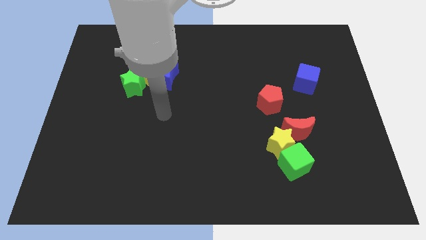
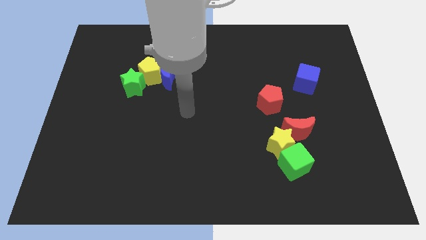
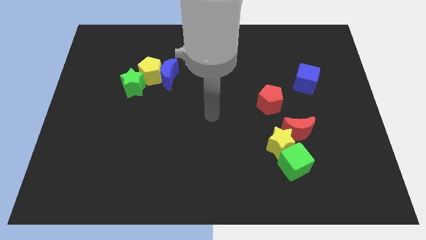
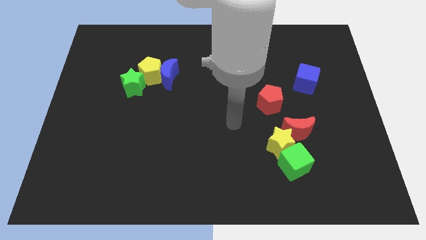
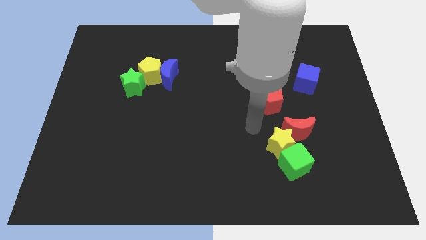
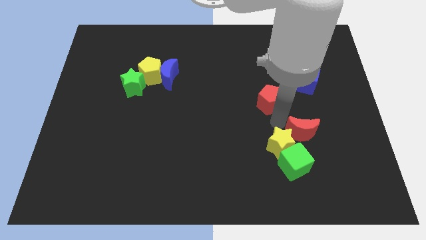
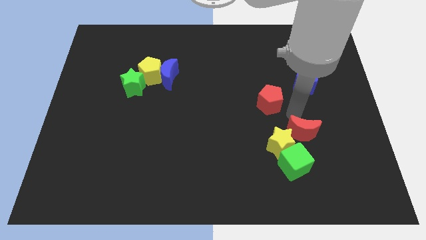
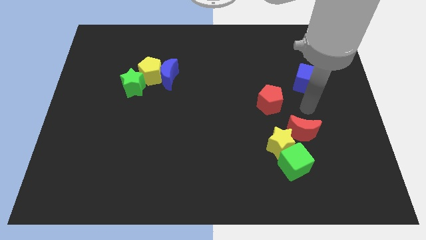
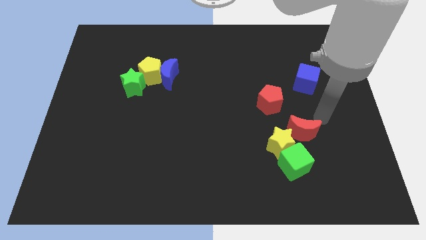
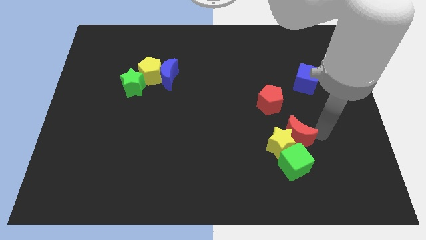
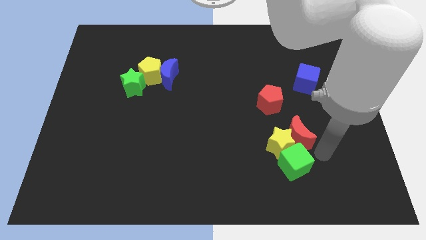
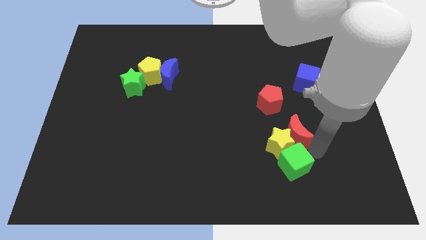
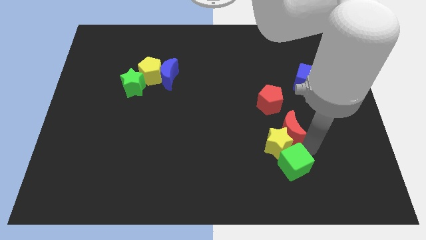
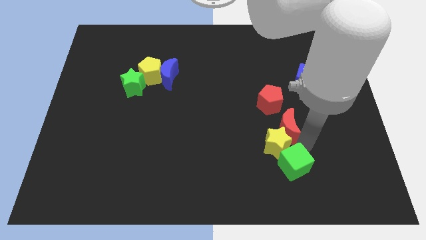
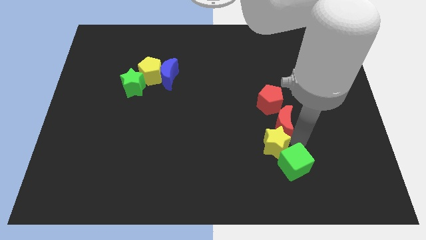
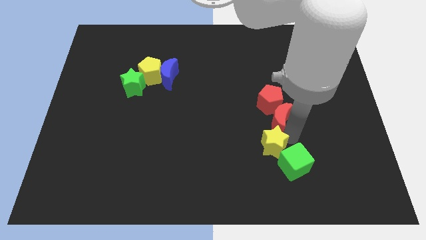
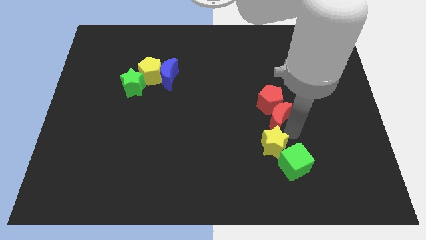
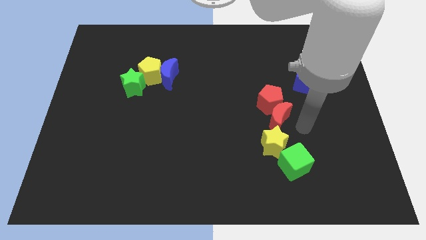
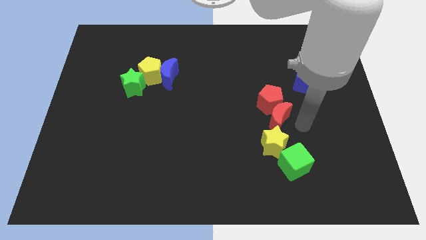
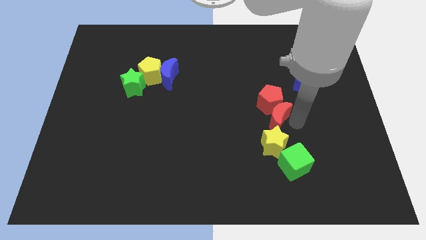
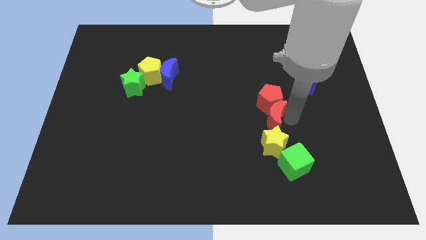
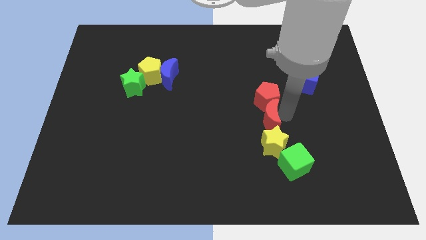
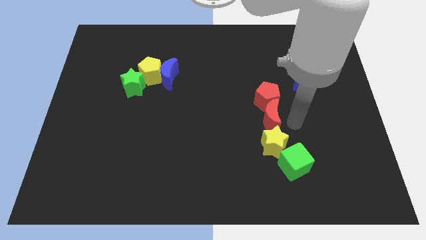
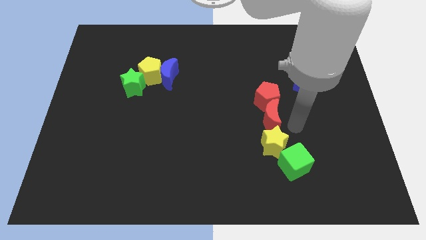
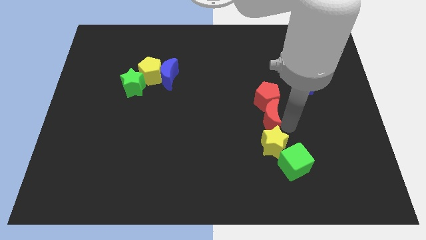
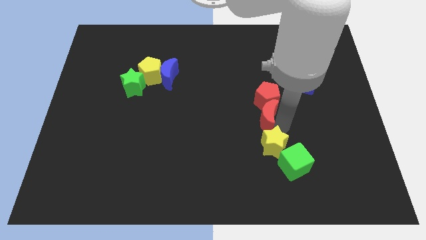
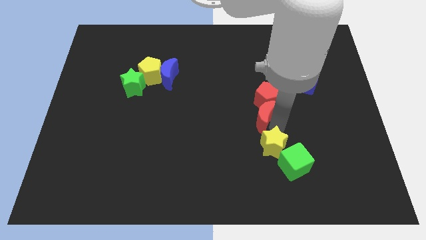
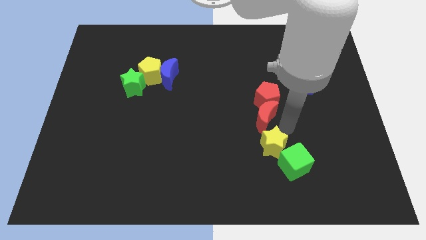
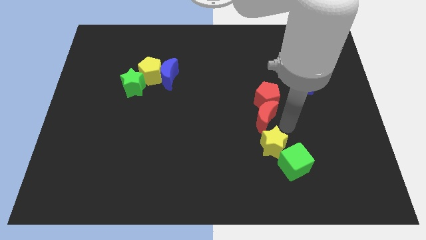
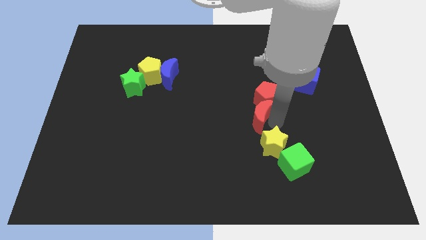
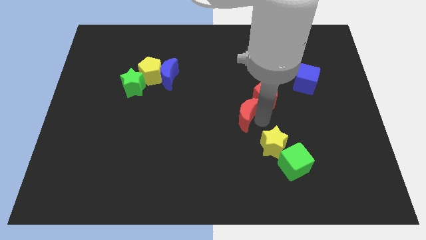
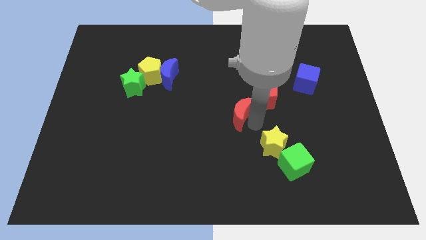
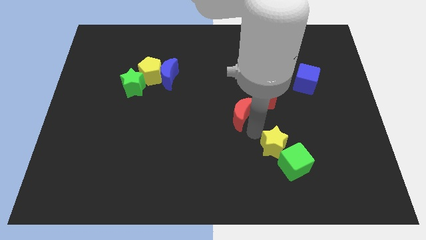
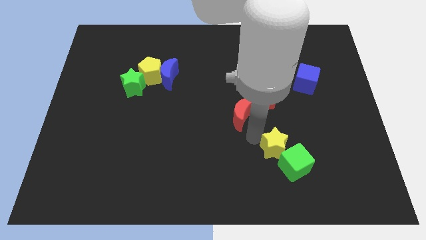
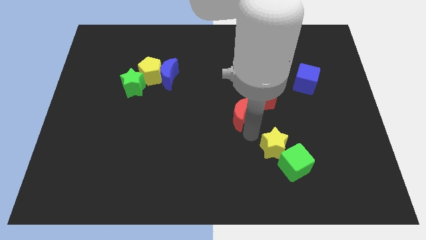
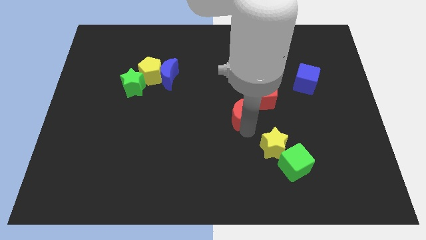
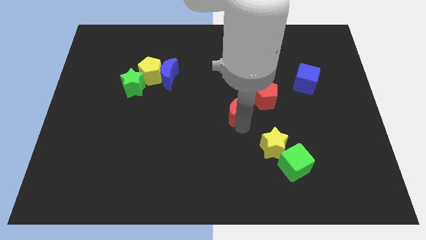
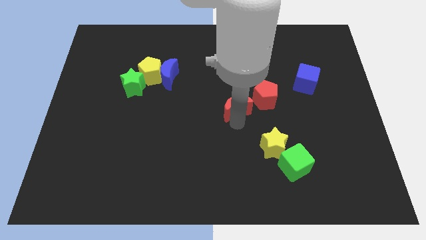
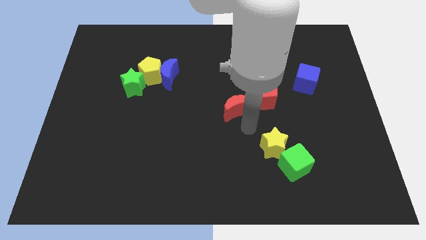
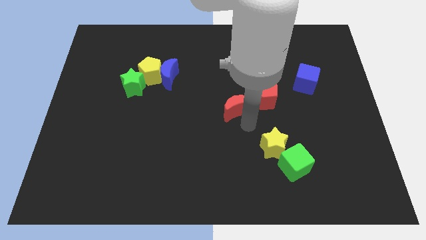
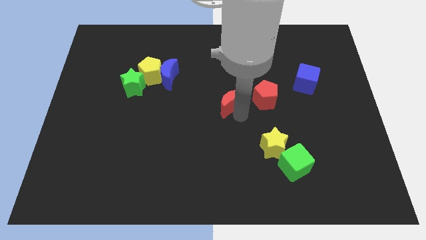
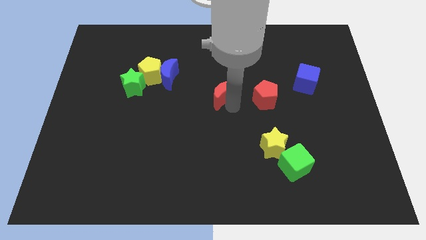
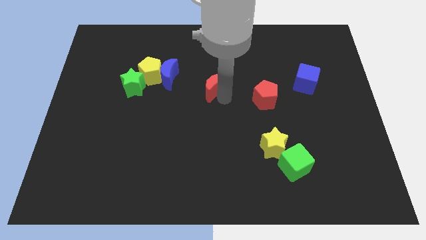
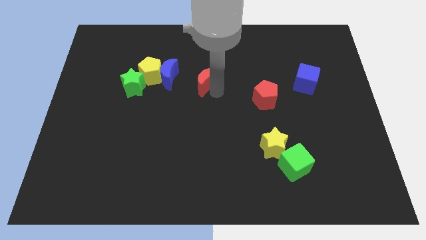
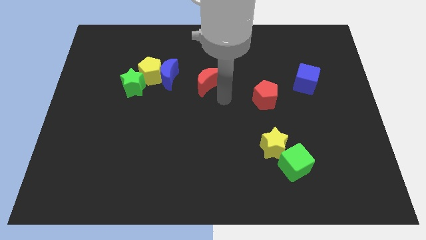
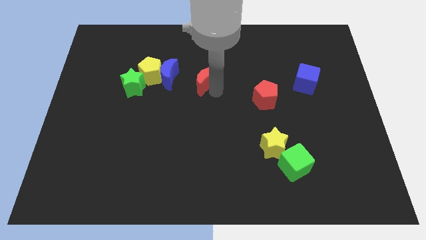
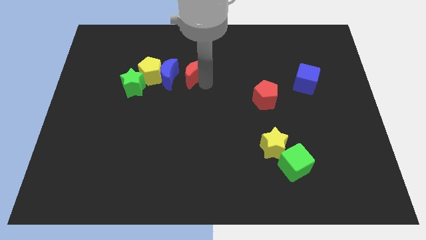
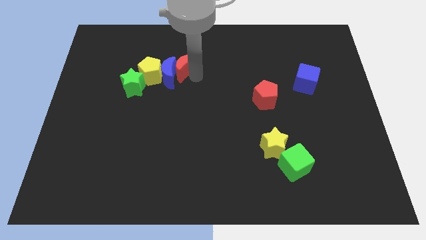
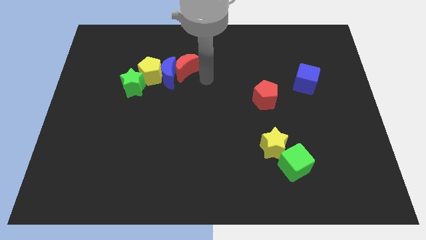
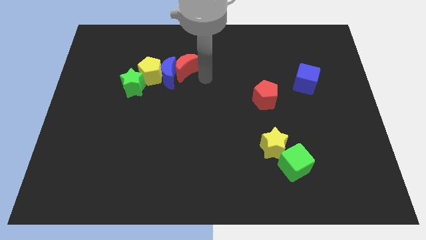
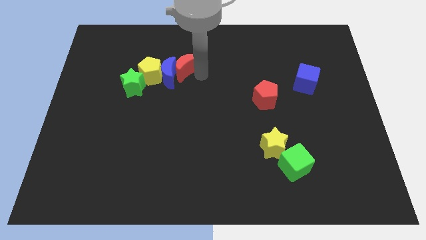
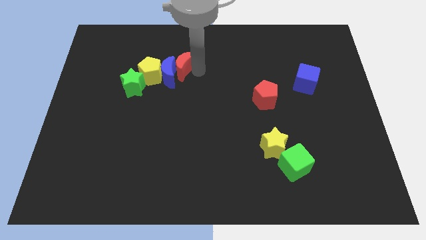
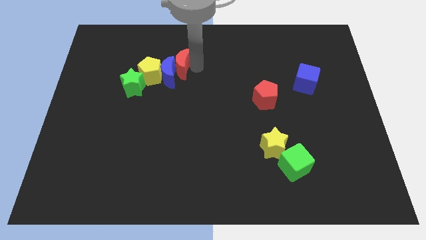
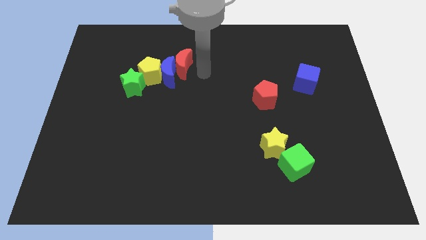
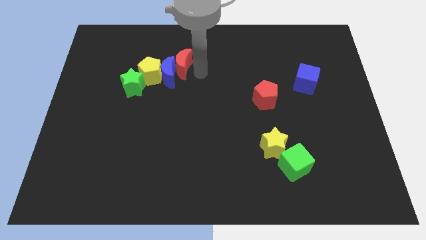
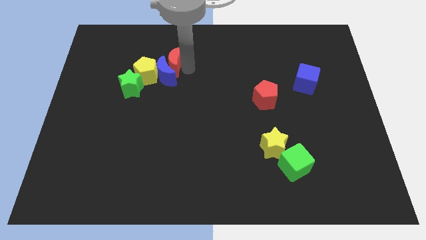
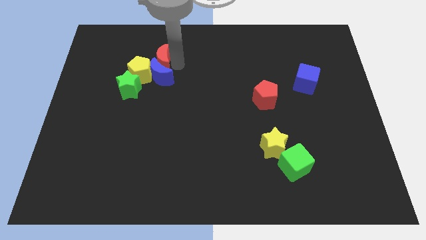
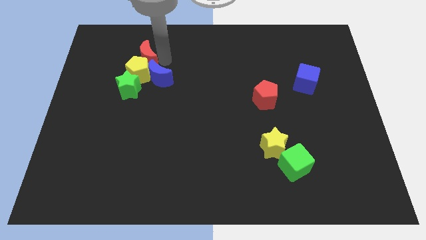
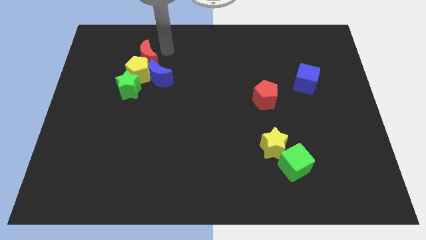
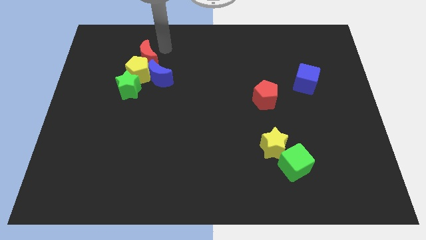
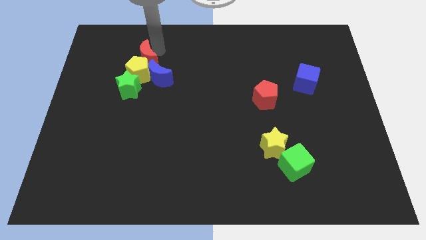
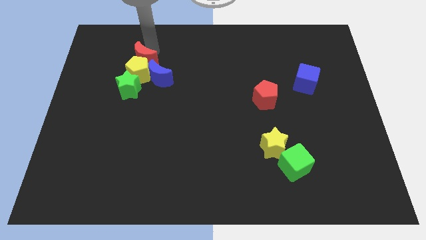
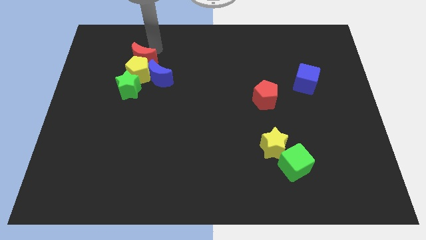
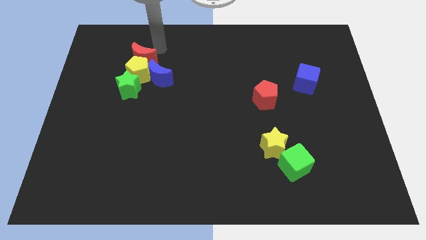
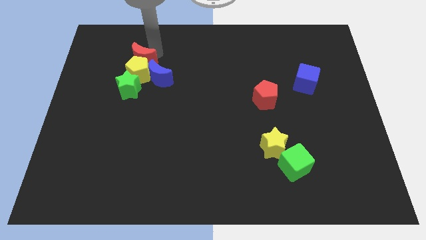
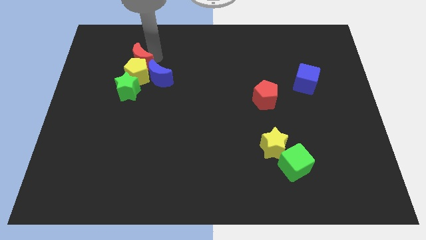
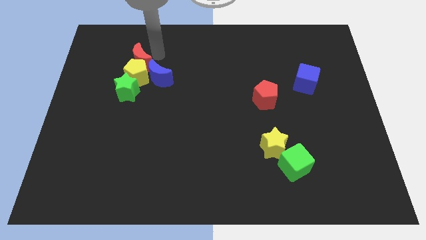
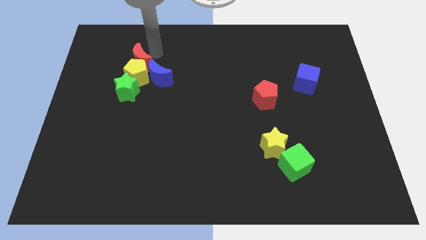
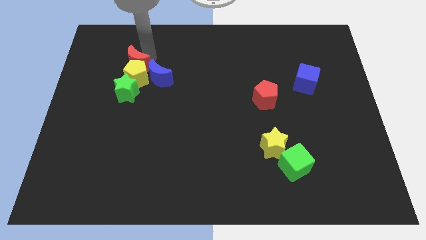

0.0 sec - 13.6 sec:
put the red moon to the left side of the blue moon
